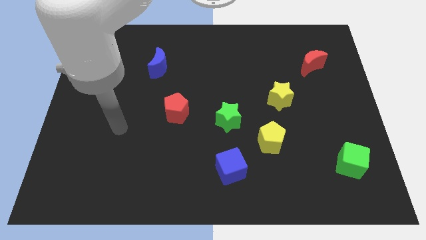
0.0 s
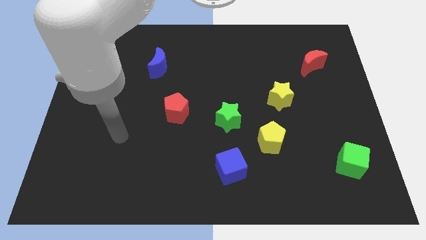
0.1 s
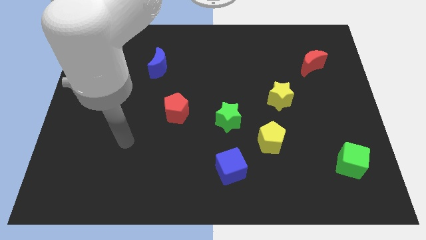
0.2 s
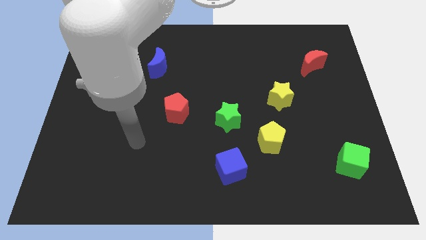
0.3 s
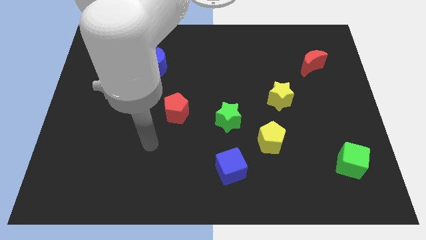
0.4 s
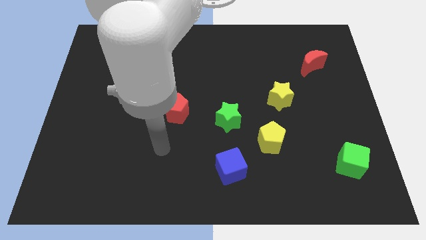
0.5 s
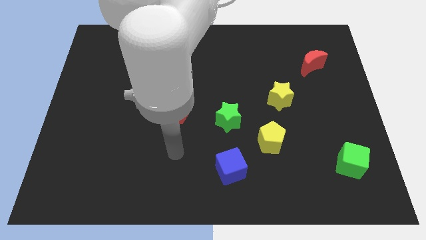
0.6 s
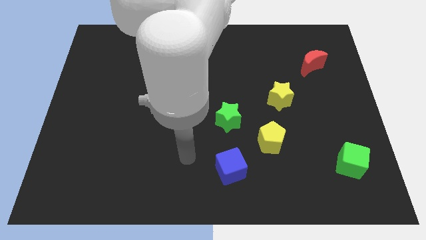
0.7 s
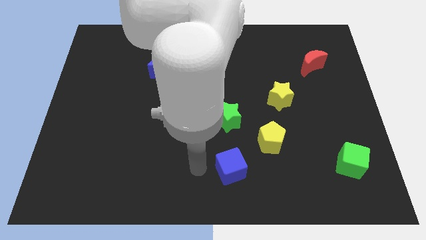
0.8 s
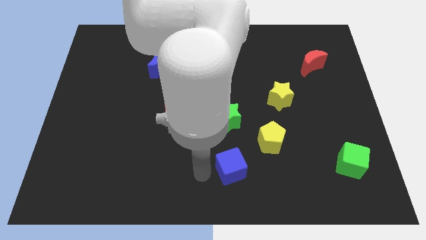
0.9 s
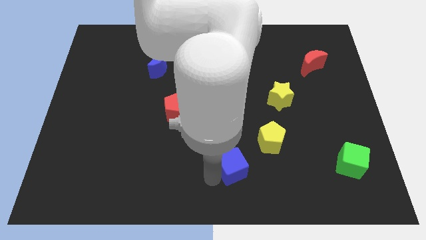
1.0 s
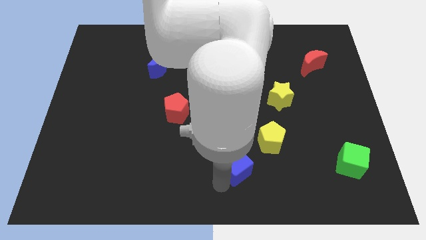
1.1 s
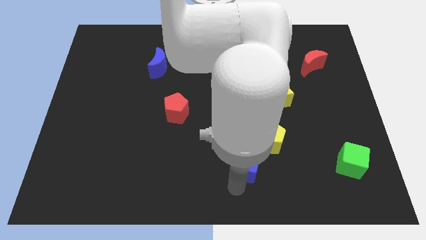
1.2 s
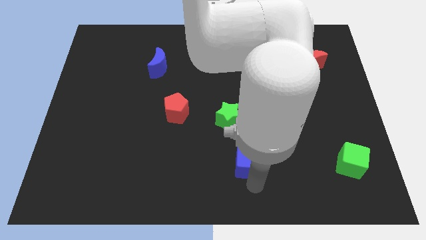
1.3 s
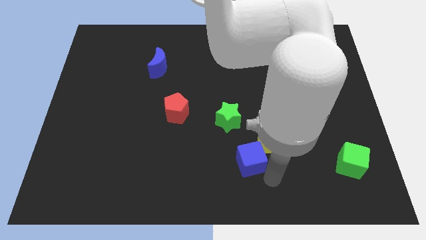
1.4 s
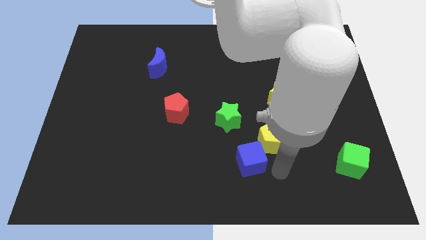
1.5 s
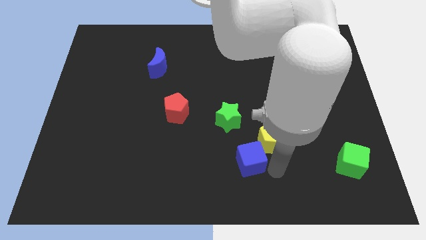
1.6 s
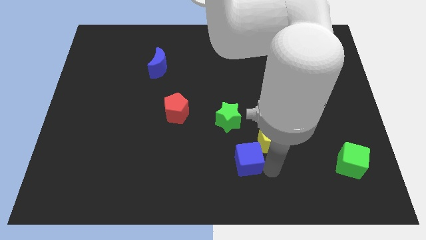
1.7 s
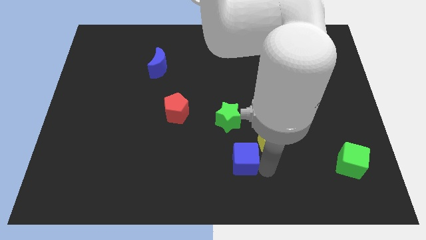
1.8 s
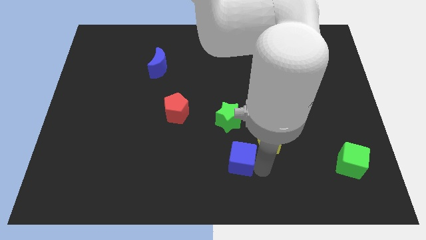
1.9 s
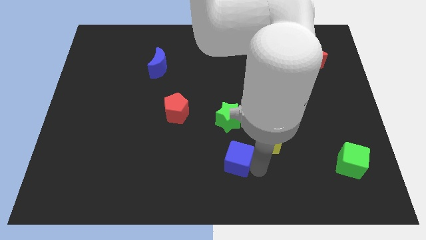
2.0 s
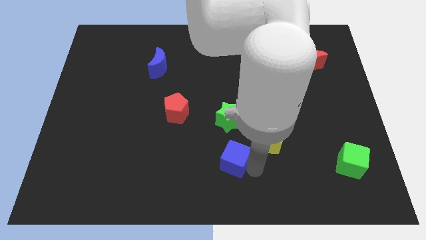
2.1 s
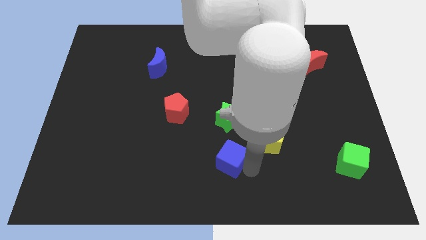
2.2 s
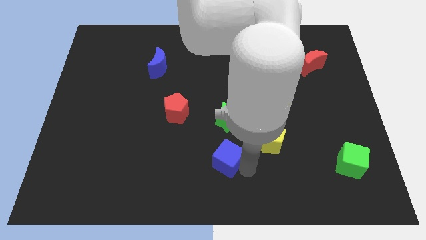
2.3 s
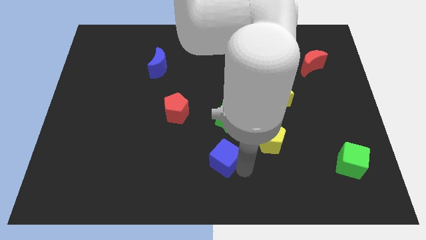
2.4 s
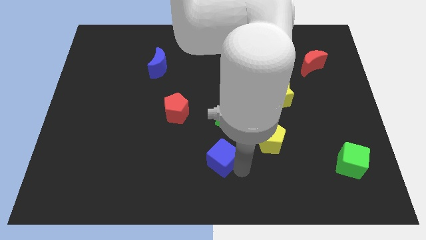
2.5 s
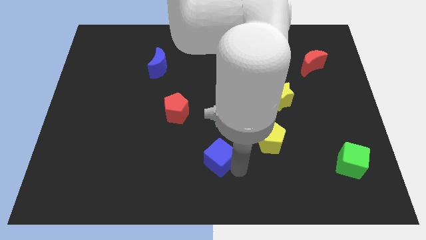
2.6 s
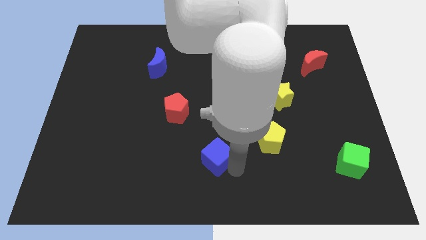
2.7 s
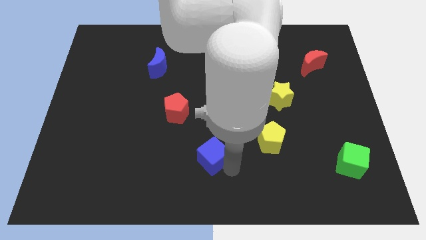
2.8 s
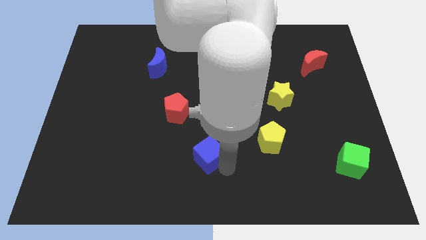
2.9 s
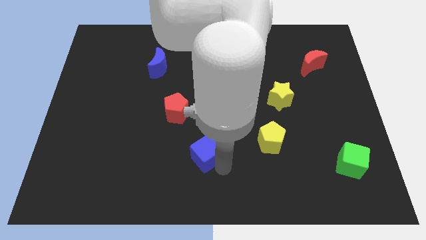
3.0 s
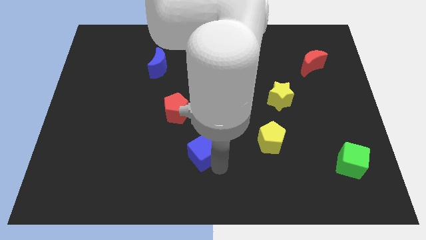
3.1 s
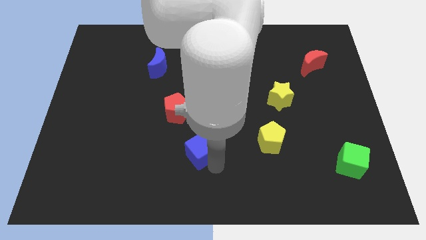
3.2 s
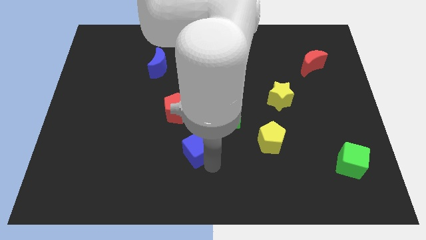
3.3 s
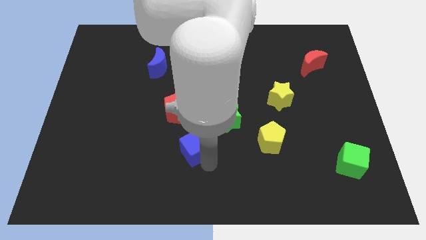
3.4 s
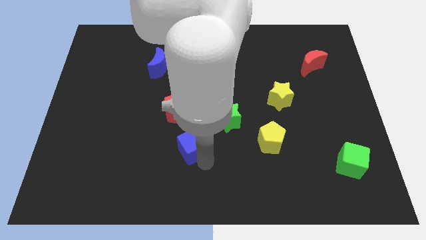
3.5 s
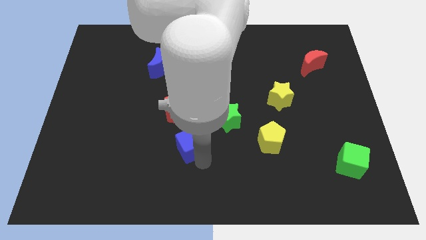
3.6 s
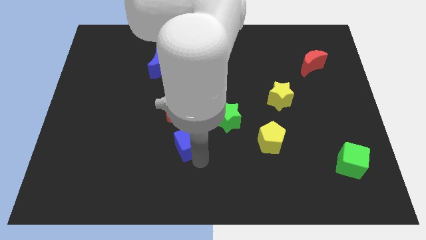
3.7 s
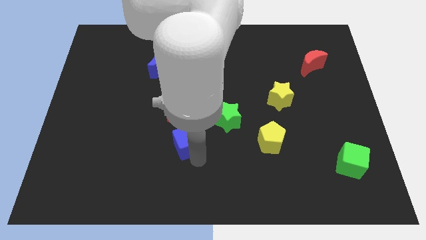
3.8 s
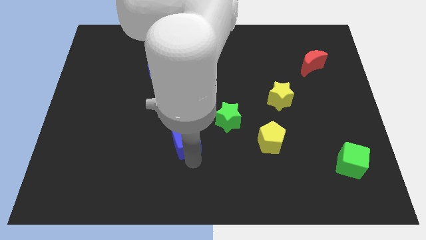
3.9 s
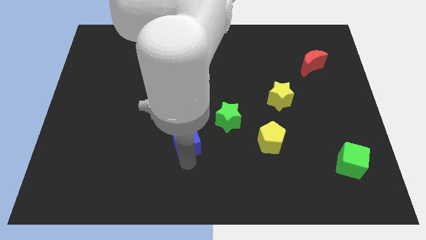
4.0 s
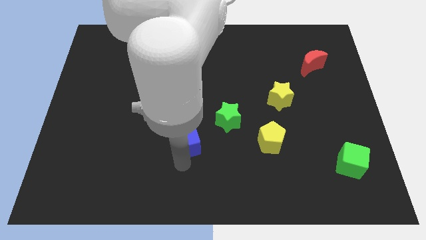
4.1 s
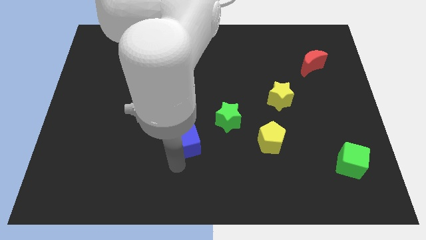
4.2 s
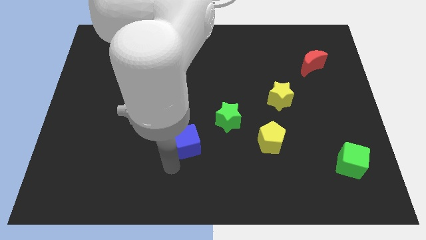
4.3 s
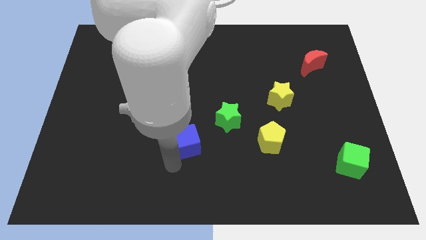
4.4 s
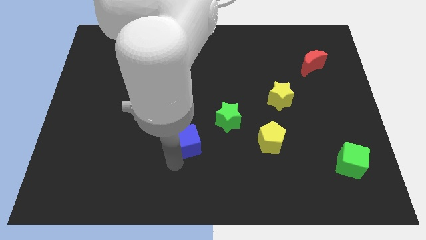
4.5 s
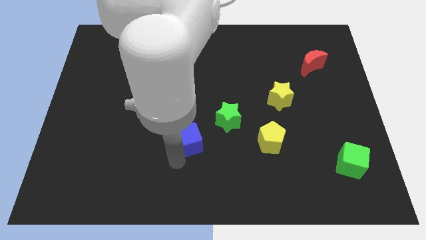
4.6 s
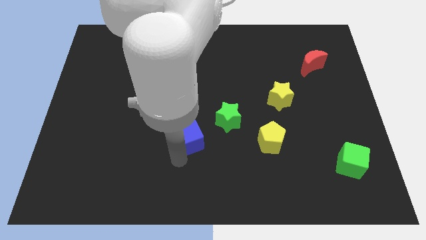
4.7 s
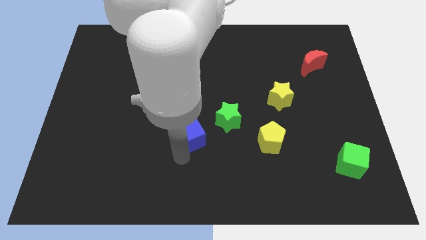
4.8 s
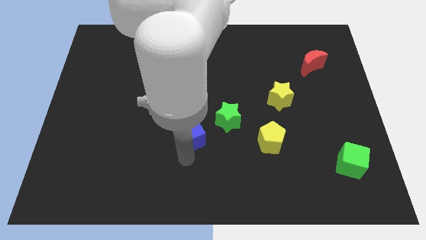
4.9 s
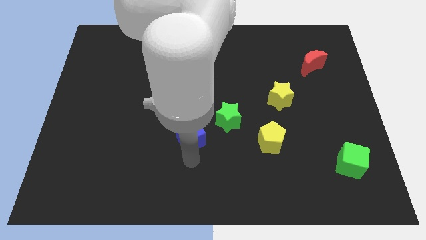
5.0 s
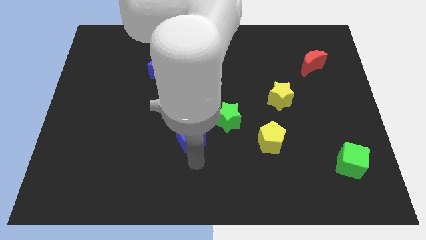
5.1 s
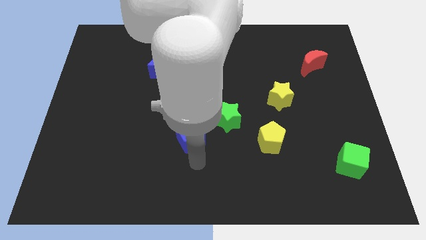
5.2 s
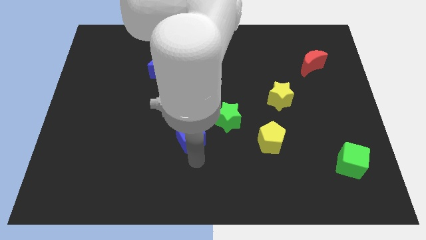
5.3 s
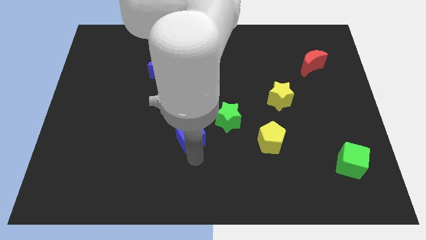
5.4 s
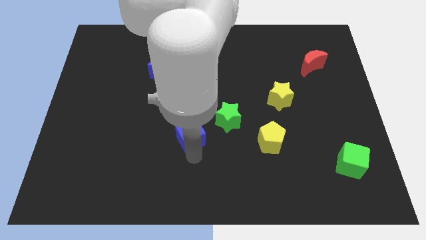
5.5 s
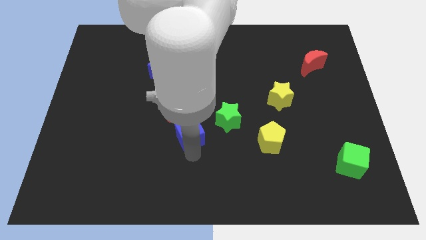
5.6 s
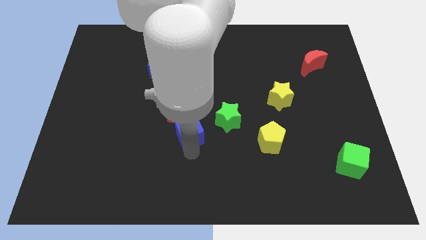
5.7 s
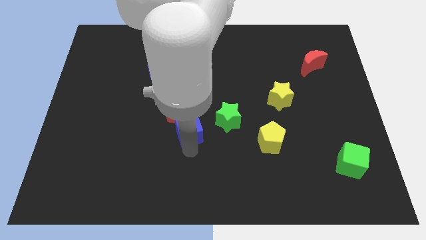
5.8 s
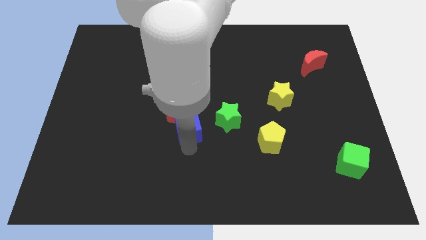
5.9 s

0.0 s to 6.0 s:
put the blue cube close to the red pentagon

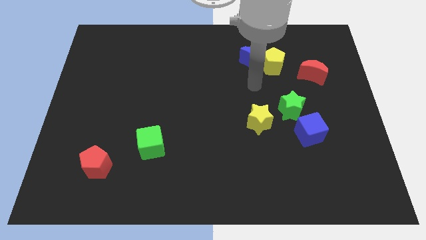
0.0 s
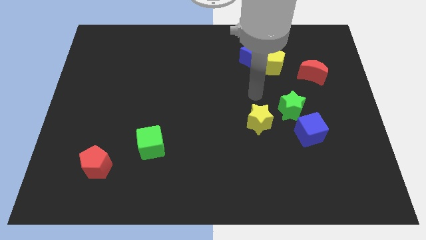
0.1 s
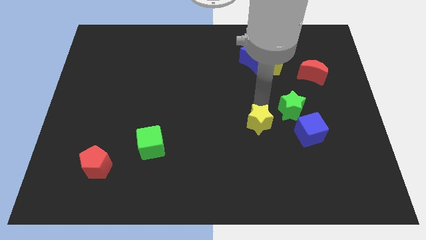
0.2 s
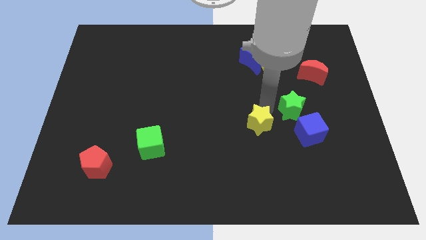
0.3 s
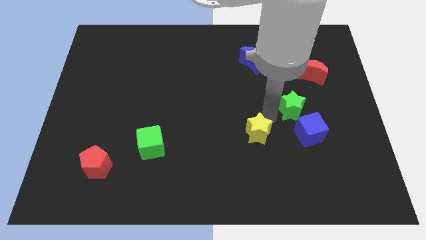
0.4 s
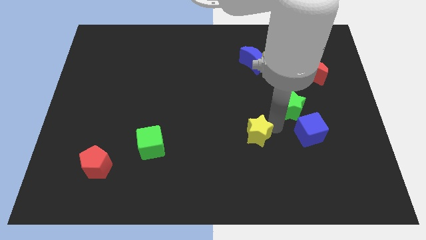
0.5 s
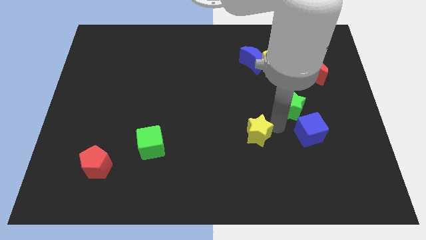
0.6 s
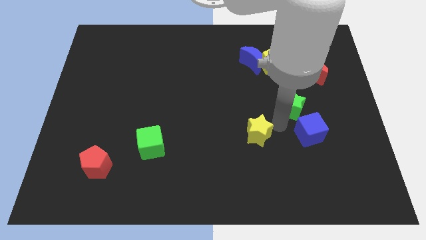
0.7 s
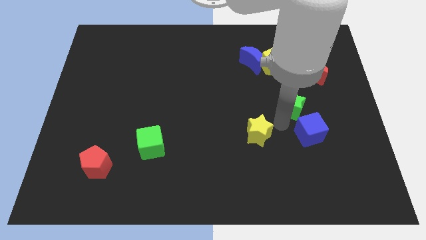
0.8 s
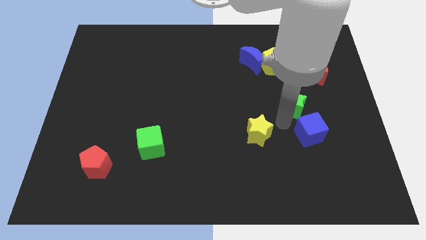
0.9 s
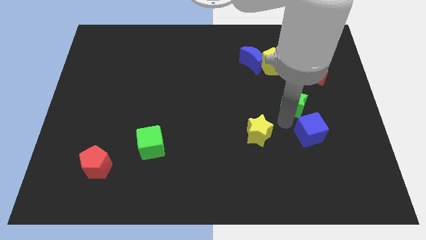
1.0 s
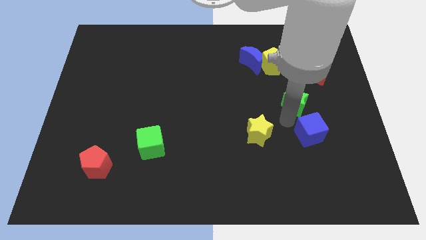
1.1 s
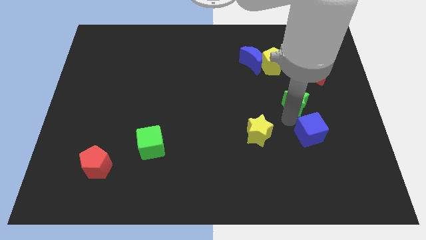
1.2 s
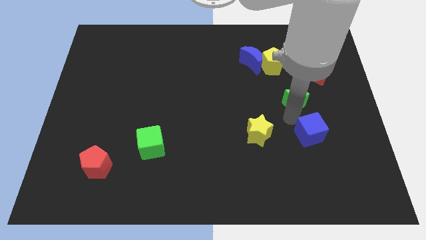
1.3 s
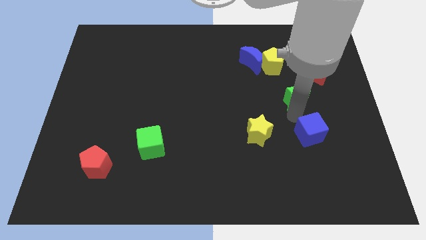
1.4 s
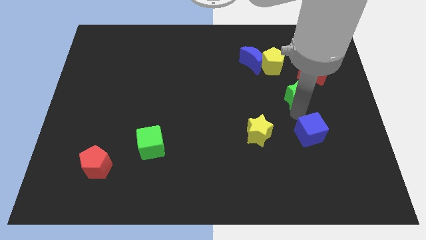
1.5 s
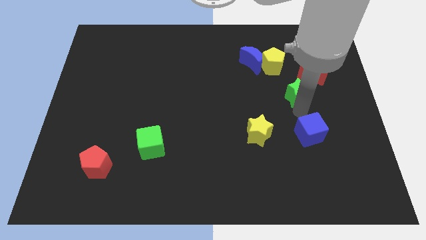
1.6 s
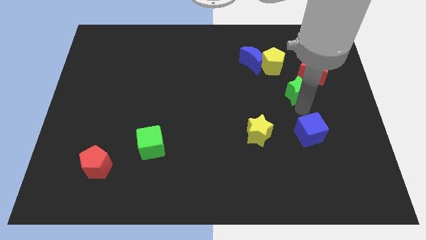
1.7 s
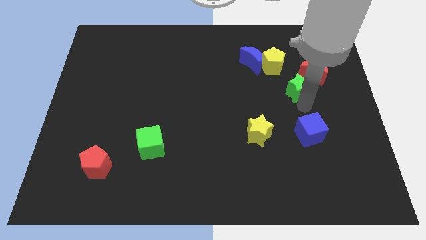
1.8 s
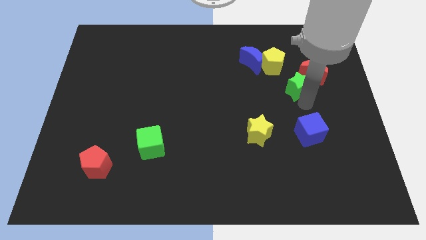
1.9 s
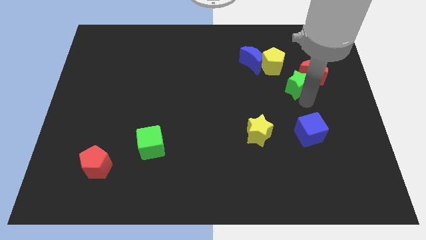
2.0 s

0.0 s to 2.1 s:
put the green star next to the red moon

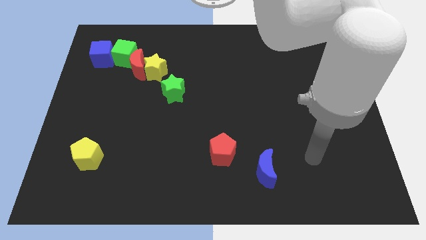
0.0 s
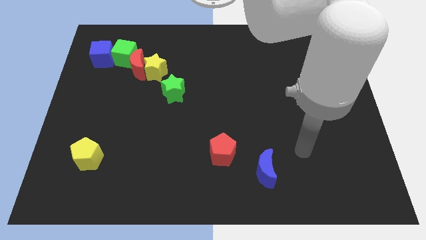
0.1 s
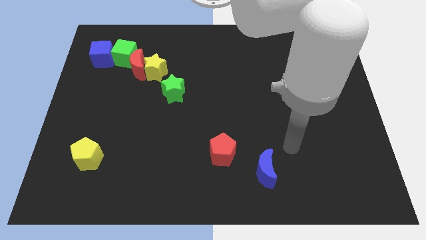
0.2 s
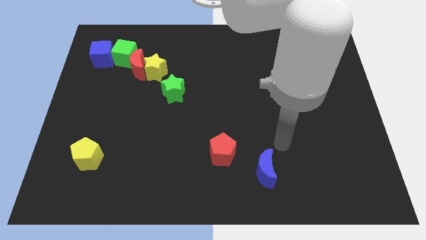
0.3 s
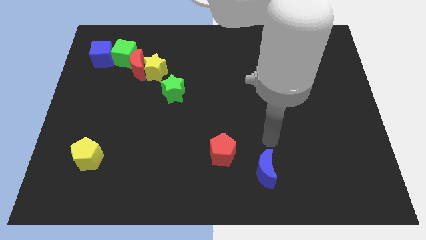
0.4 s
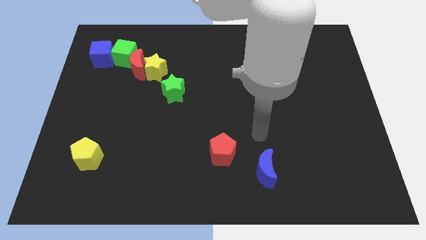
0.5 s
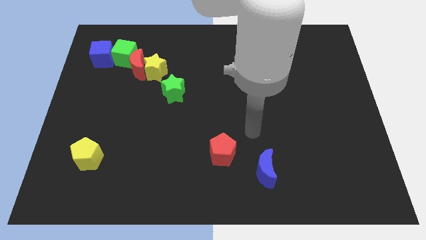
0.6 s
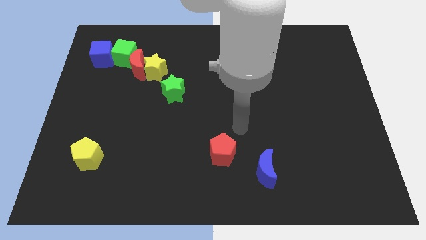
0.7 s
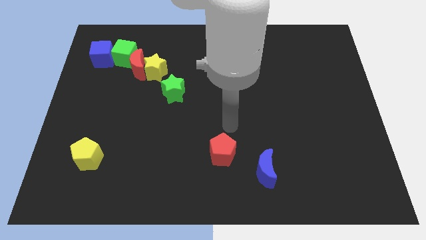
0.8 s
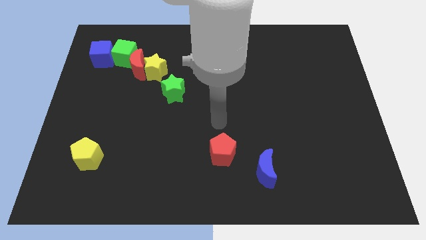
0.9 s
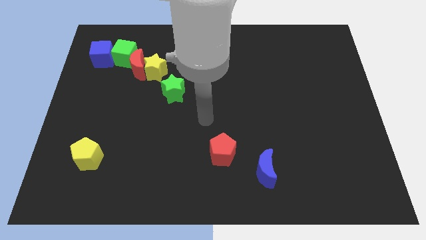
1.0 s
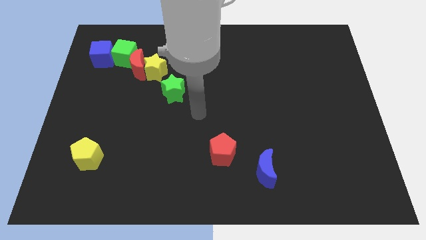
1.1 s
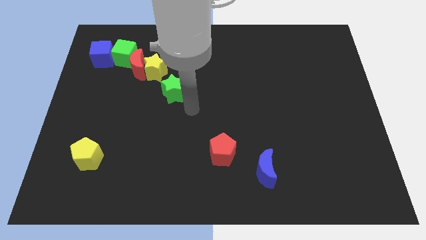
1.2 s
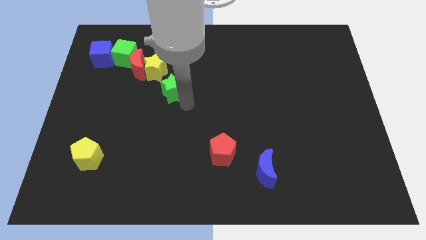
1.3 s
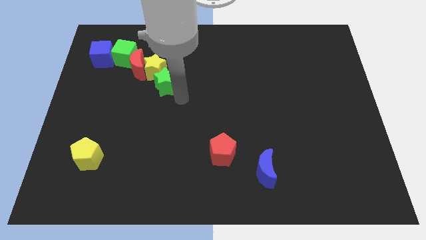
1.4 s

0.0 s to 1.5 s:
push the green star close to the yellow star
